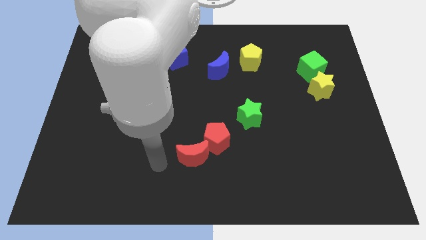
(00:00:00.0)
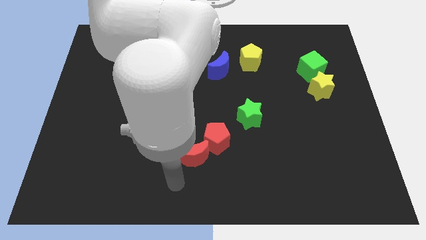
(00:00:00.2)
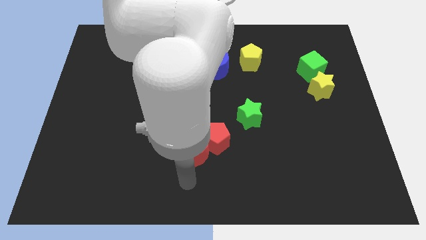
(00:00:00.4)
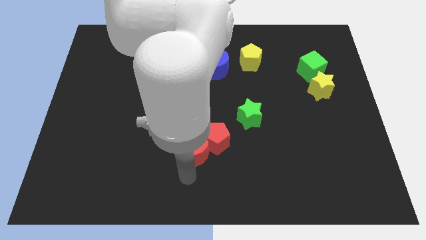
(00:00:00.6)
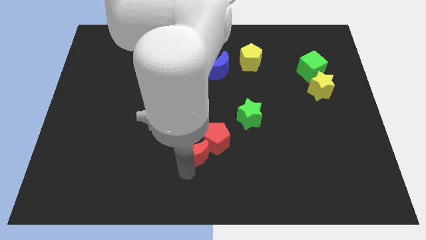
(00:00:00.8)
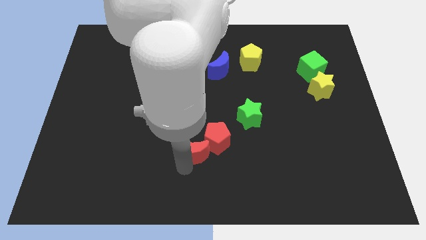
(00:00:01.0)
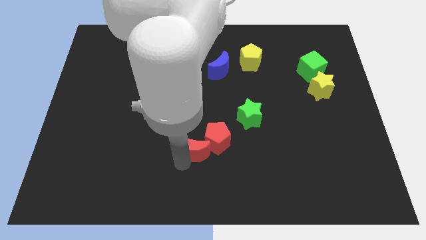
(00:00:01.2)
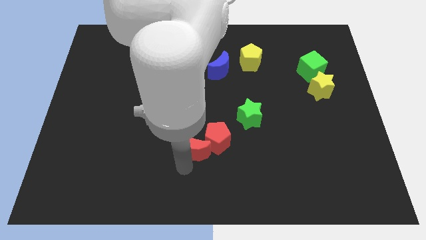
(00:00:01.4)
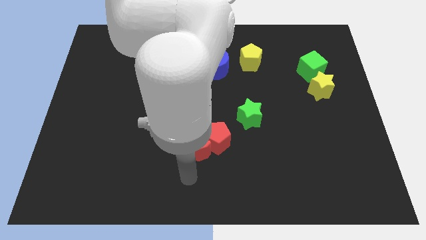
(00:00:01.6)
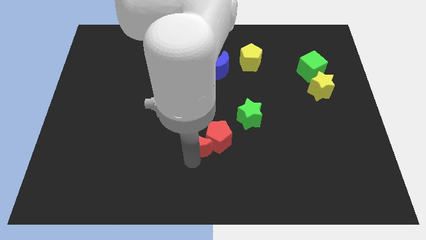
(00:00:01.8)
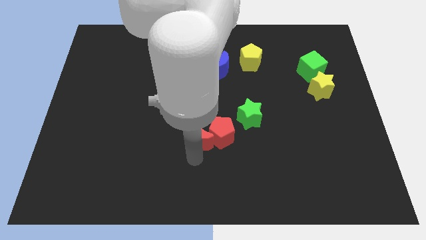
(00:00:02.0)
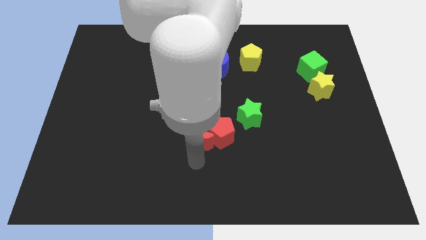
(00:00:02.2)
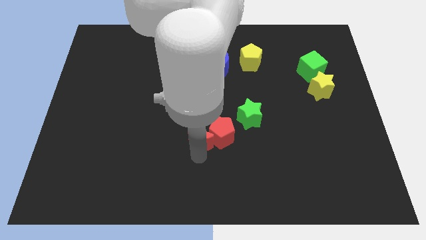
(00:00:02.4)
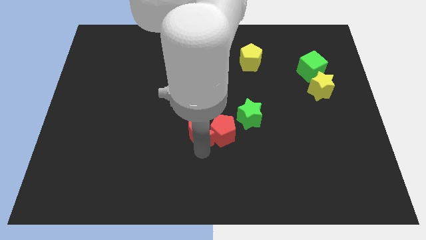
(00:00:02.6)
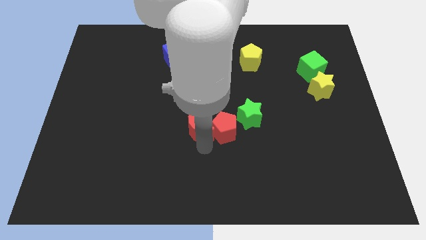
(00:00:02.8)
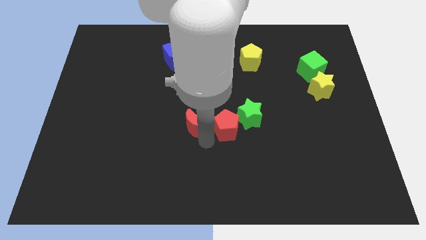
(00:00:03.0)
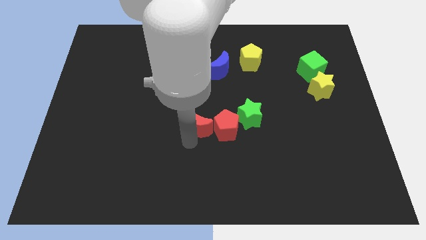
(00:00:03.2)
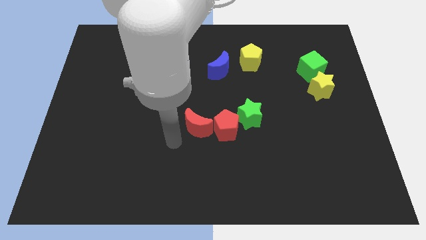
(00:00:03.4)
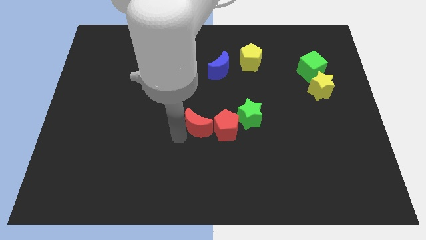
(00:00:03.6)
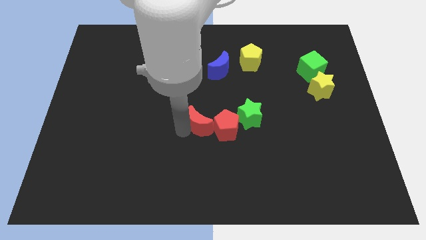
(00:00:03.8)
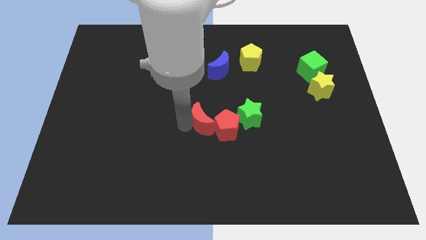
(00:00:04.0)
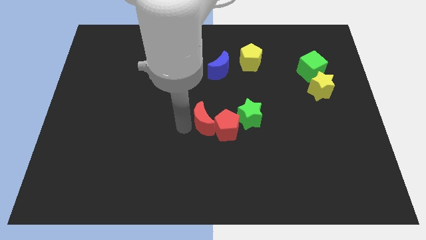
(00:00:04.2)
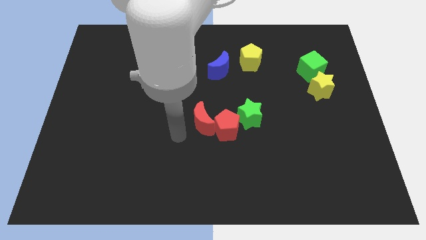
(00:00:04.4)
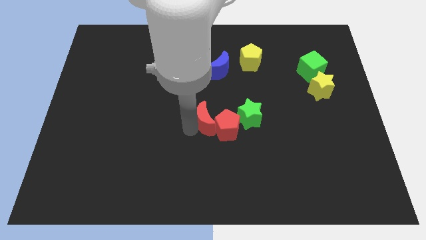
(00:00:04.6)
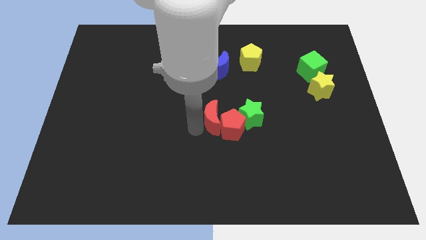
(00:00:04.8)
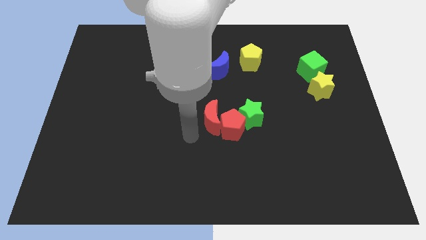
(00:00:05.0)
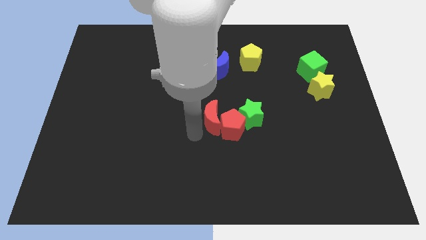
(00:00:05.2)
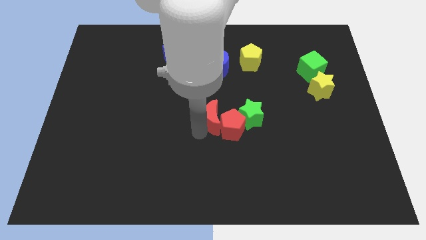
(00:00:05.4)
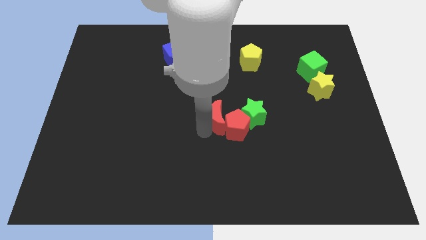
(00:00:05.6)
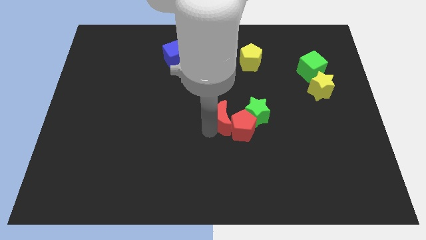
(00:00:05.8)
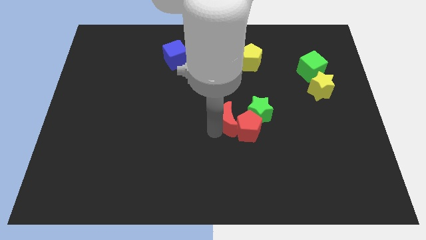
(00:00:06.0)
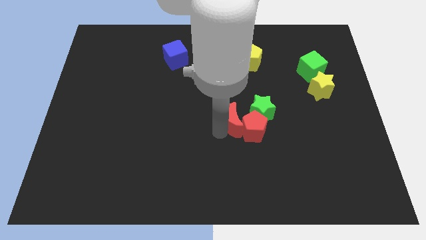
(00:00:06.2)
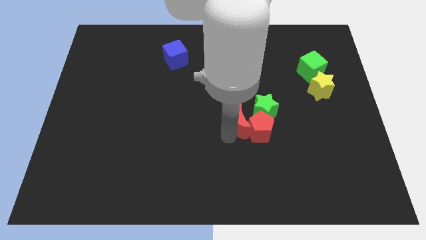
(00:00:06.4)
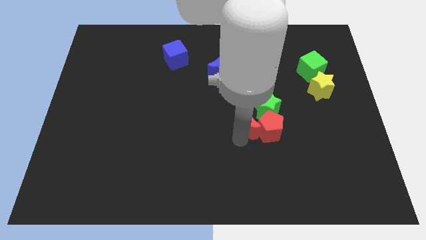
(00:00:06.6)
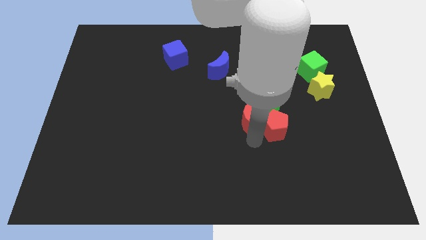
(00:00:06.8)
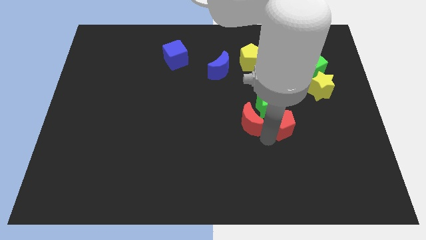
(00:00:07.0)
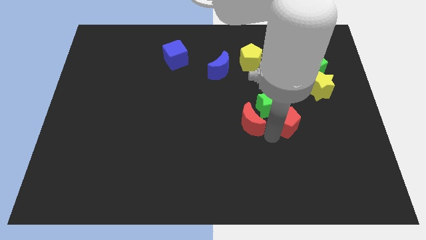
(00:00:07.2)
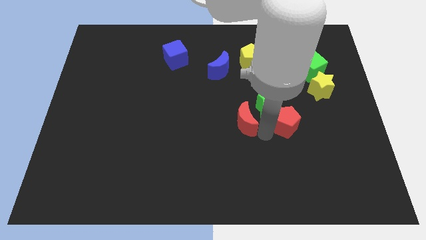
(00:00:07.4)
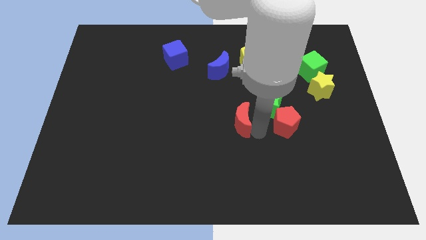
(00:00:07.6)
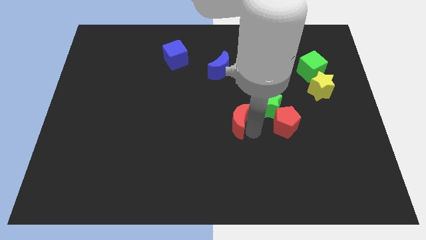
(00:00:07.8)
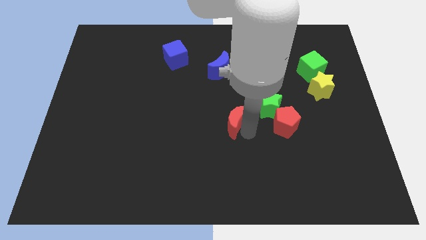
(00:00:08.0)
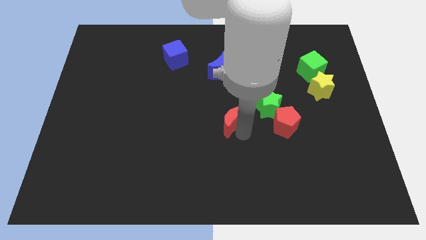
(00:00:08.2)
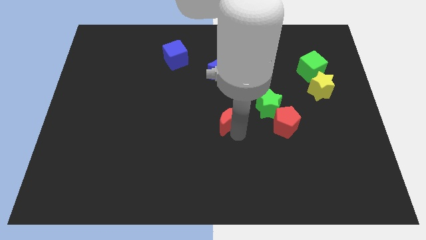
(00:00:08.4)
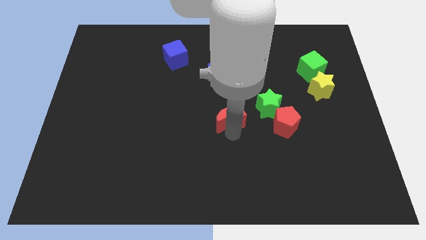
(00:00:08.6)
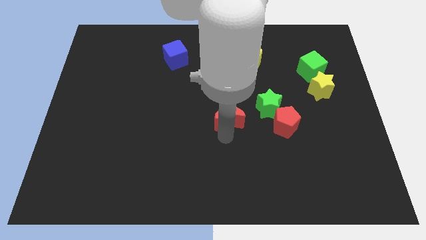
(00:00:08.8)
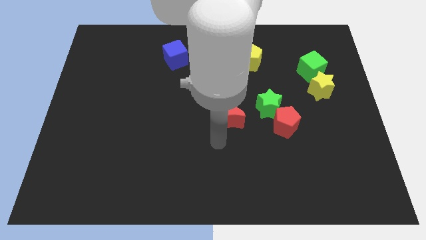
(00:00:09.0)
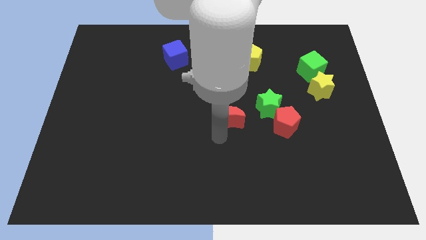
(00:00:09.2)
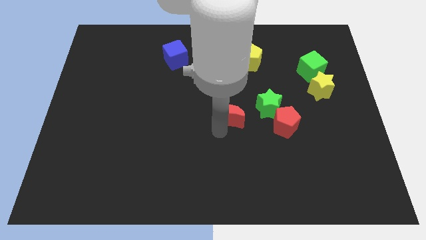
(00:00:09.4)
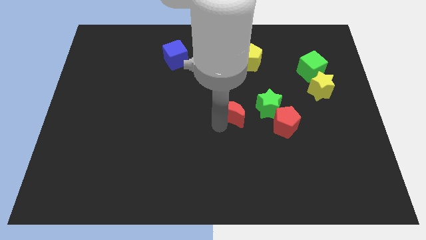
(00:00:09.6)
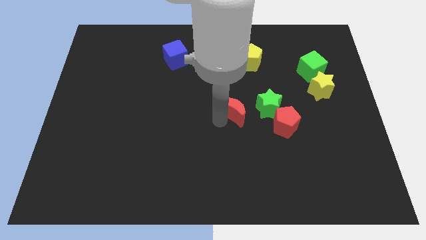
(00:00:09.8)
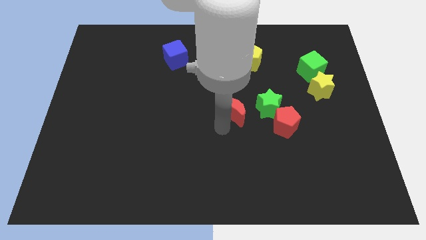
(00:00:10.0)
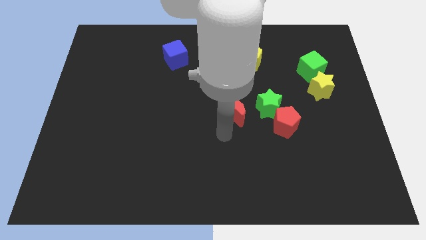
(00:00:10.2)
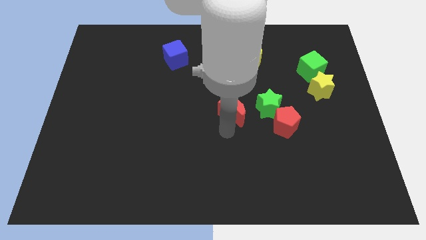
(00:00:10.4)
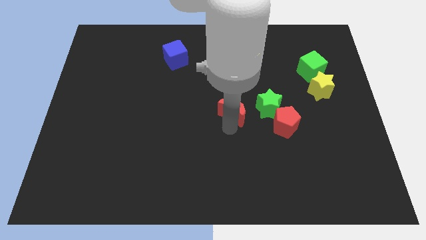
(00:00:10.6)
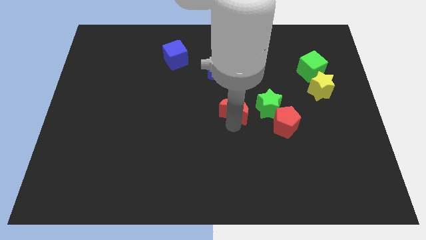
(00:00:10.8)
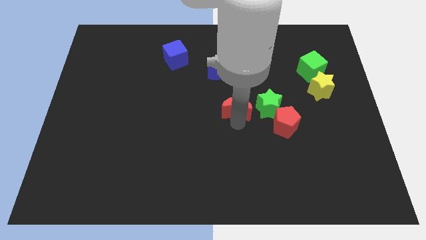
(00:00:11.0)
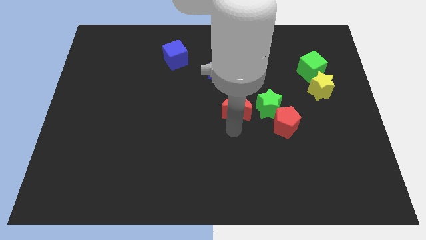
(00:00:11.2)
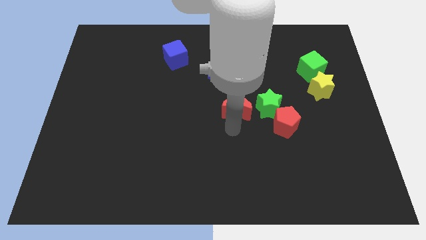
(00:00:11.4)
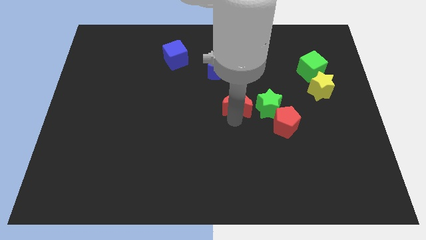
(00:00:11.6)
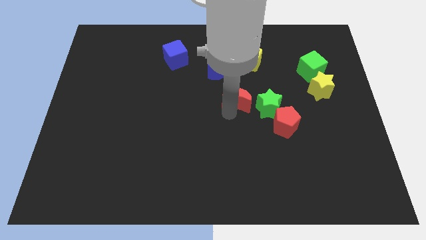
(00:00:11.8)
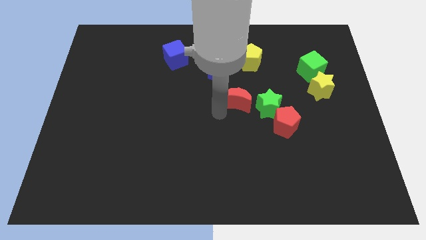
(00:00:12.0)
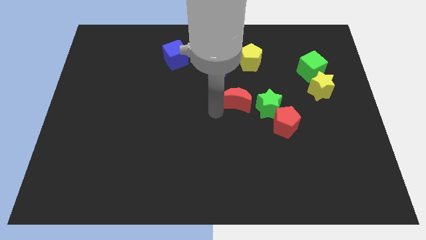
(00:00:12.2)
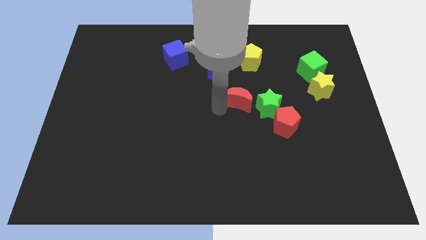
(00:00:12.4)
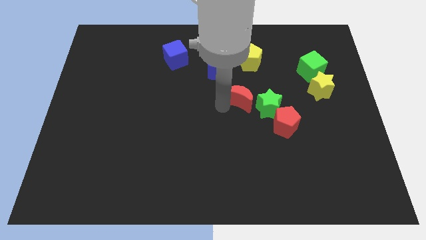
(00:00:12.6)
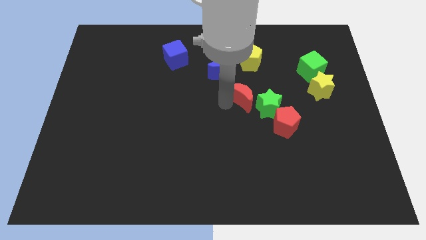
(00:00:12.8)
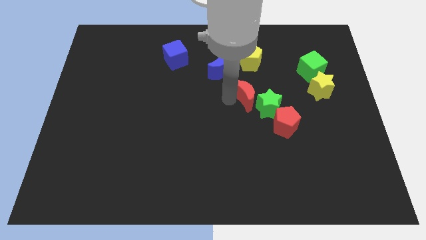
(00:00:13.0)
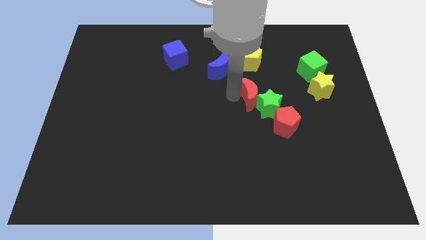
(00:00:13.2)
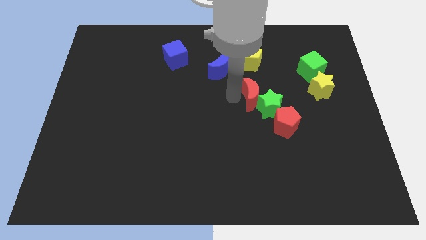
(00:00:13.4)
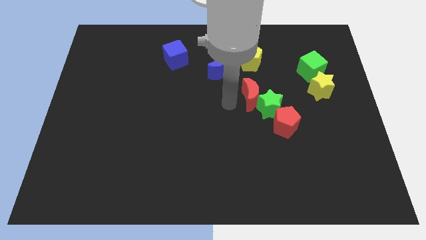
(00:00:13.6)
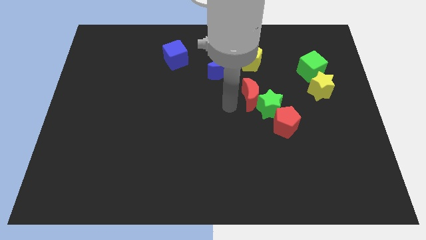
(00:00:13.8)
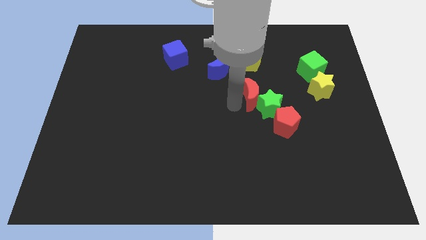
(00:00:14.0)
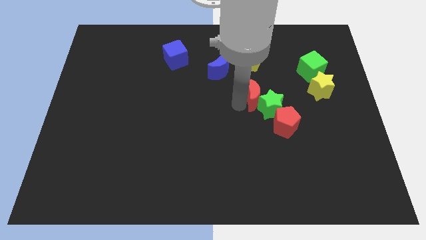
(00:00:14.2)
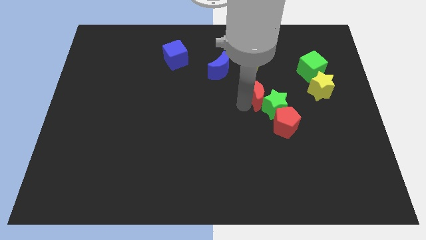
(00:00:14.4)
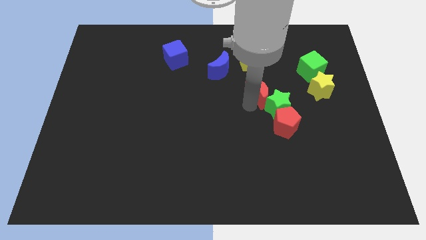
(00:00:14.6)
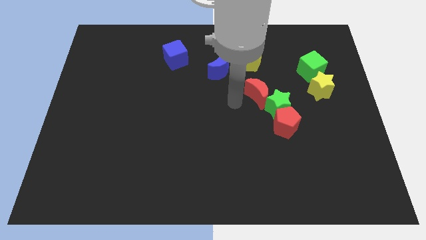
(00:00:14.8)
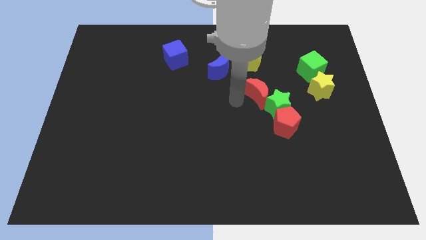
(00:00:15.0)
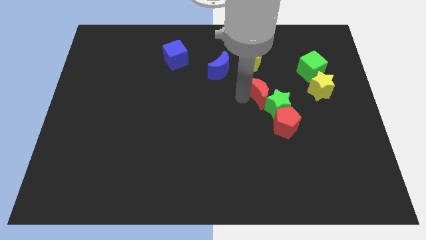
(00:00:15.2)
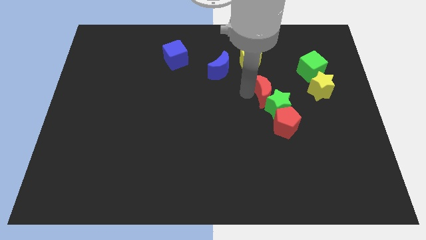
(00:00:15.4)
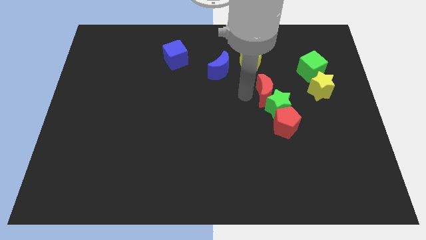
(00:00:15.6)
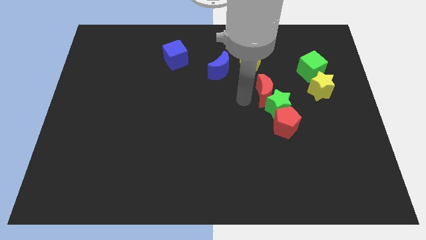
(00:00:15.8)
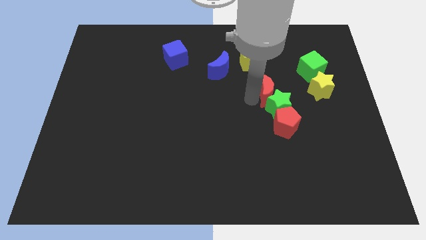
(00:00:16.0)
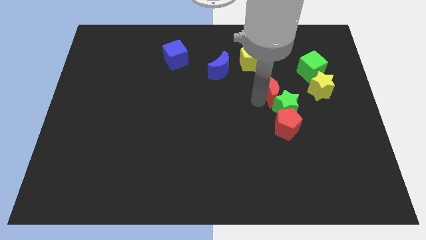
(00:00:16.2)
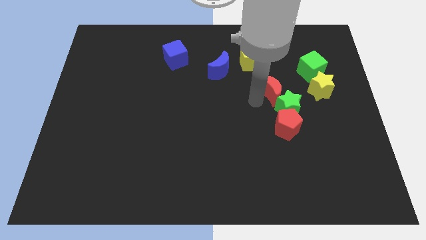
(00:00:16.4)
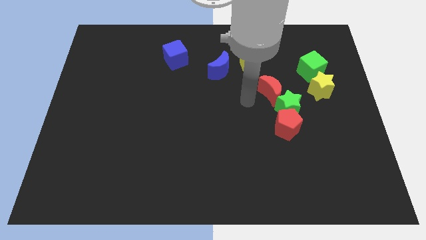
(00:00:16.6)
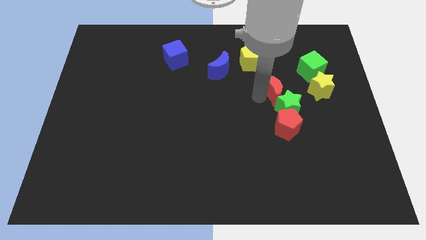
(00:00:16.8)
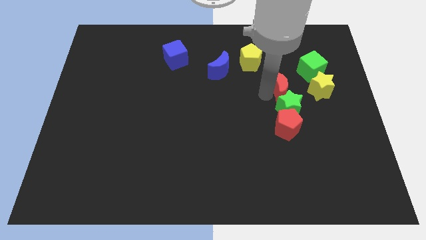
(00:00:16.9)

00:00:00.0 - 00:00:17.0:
put the red moon to the bottom left of the green cube
